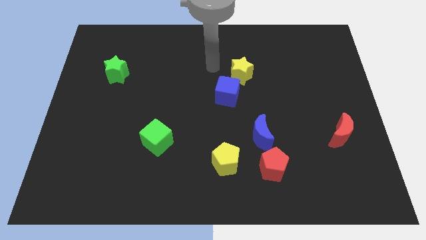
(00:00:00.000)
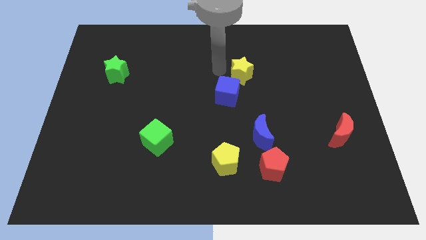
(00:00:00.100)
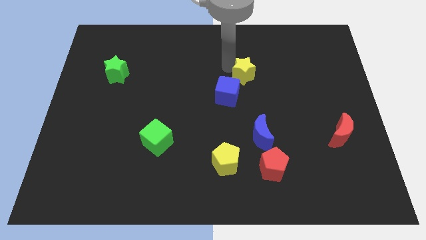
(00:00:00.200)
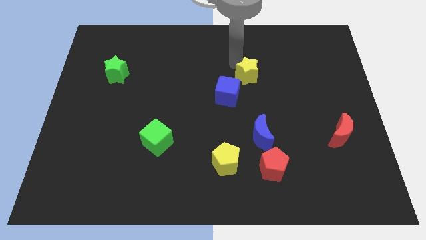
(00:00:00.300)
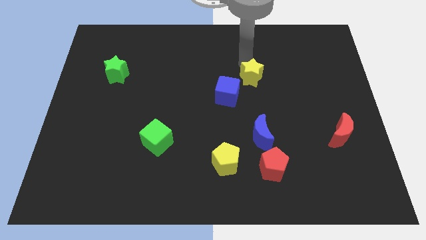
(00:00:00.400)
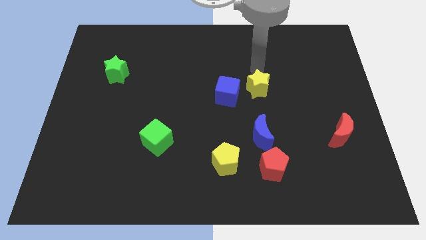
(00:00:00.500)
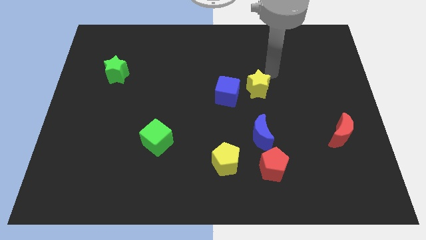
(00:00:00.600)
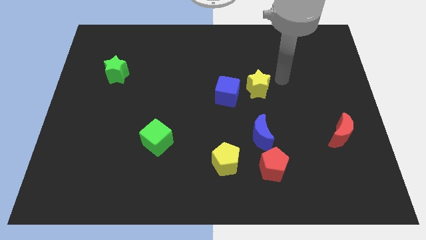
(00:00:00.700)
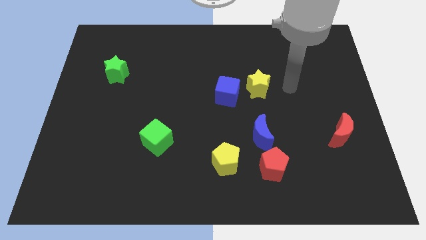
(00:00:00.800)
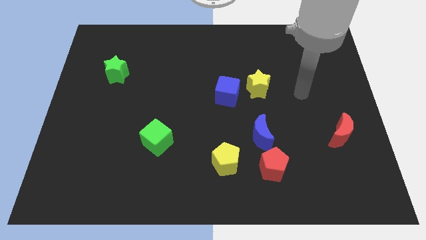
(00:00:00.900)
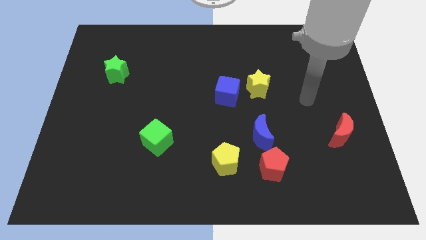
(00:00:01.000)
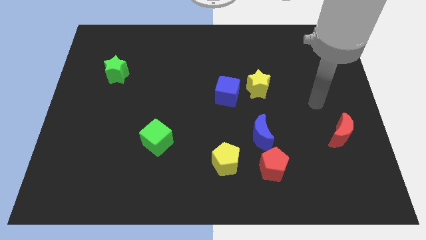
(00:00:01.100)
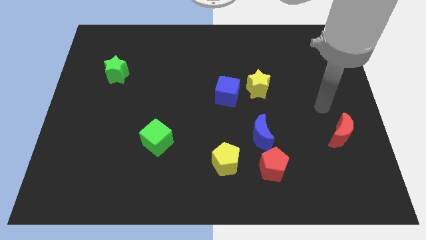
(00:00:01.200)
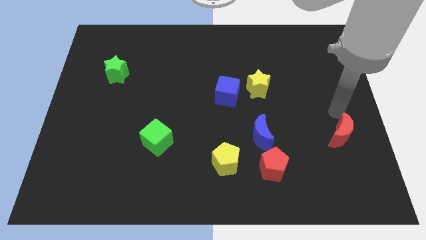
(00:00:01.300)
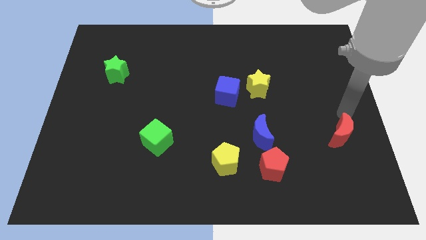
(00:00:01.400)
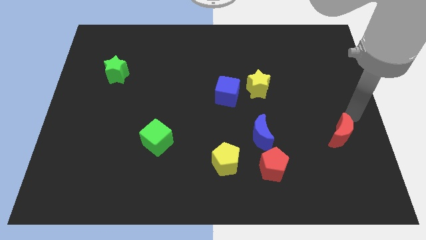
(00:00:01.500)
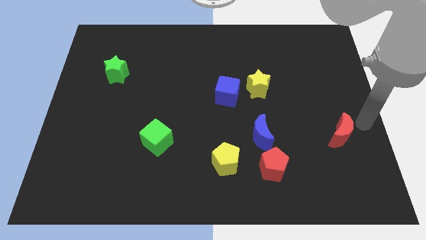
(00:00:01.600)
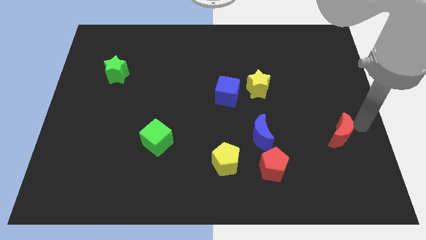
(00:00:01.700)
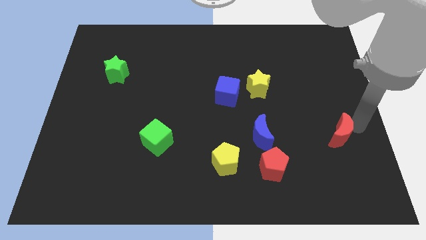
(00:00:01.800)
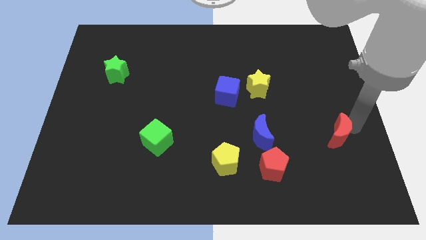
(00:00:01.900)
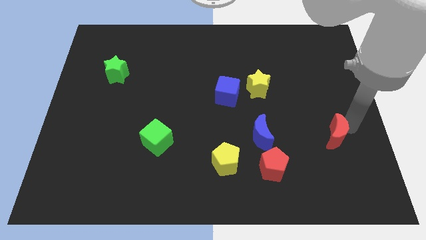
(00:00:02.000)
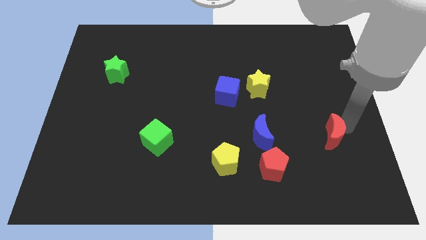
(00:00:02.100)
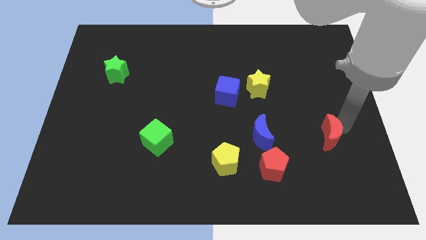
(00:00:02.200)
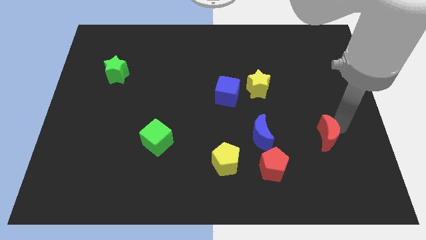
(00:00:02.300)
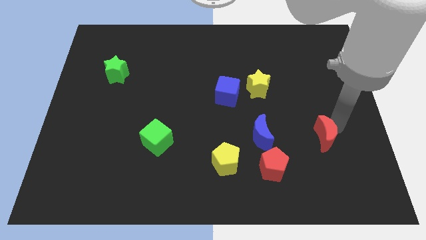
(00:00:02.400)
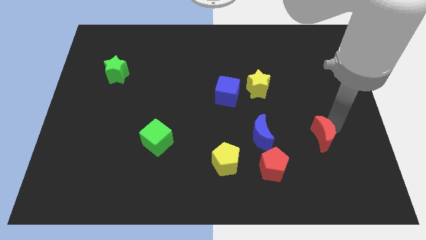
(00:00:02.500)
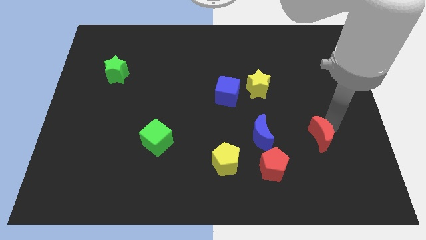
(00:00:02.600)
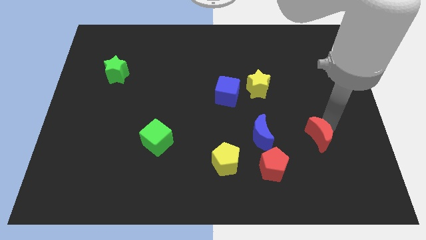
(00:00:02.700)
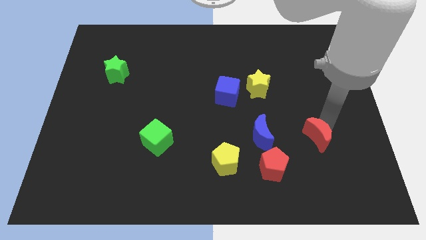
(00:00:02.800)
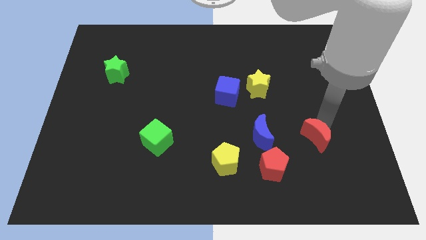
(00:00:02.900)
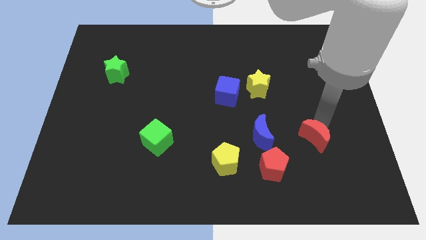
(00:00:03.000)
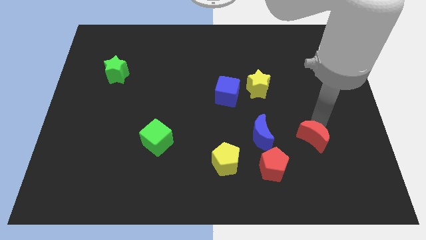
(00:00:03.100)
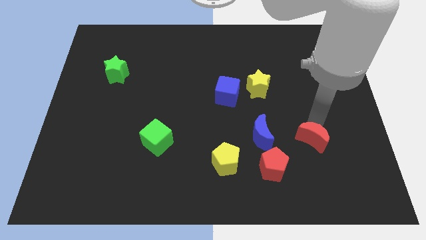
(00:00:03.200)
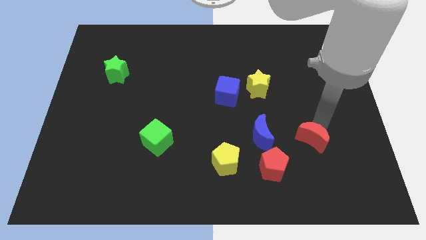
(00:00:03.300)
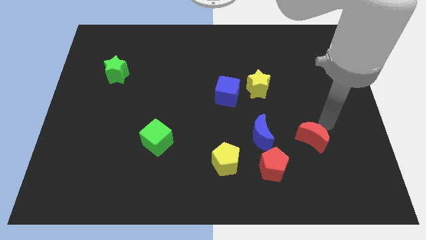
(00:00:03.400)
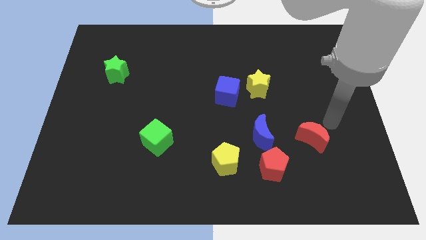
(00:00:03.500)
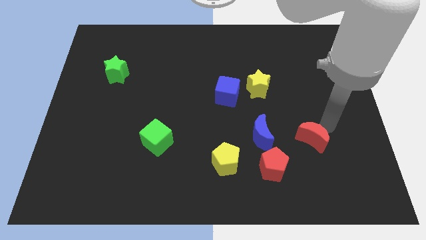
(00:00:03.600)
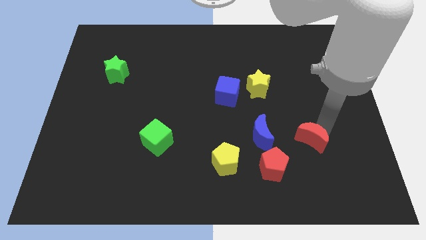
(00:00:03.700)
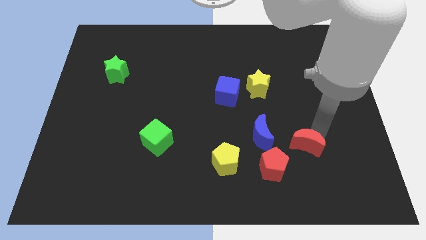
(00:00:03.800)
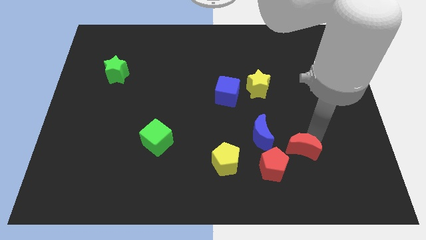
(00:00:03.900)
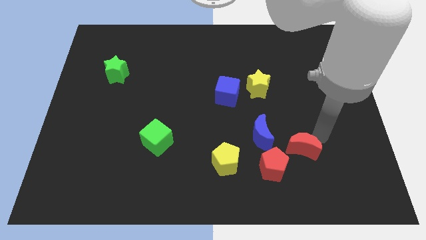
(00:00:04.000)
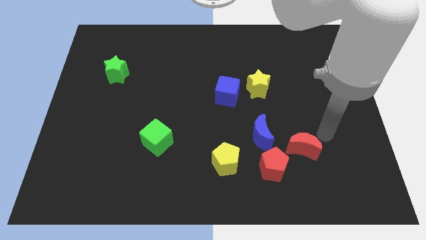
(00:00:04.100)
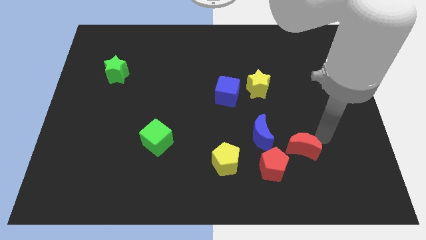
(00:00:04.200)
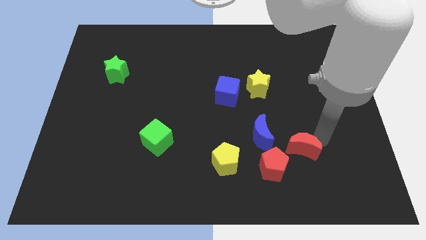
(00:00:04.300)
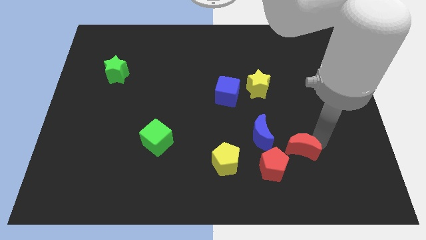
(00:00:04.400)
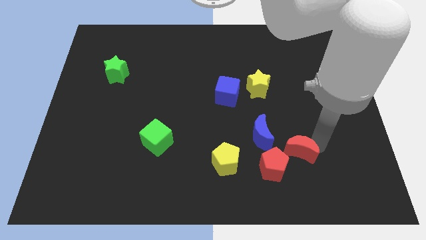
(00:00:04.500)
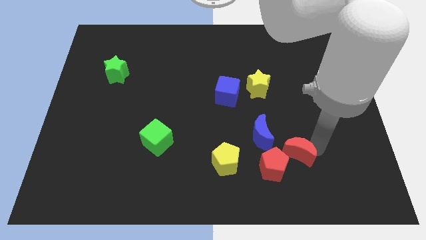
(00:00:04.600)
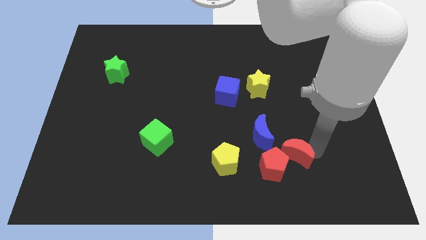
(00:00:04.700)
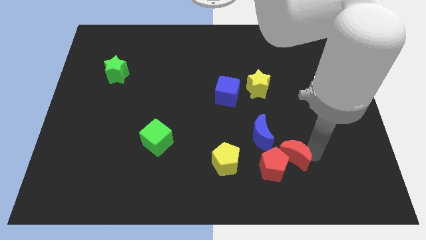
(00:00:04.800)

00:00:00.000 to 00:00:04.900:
push the red moon close to the red pentagon

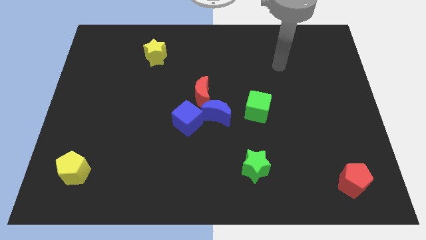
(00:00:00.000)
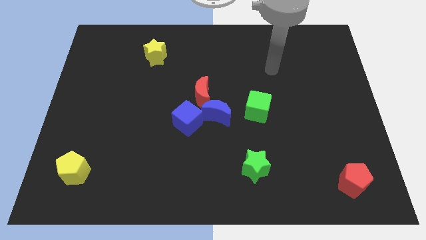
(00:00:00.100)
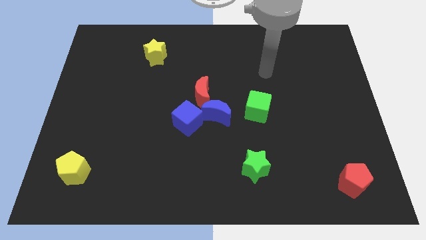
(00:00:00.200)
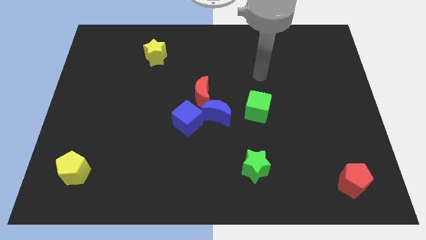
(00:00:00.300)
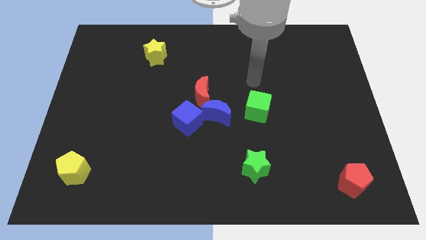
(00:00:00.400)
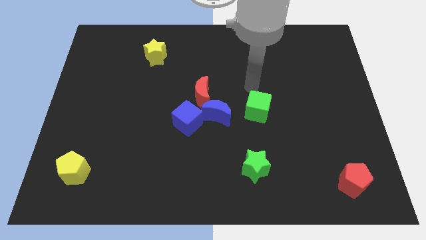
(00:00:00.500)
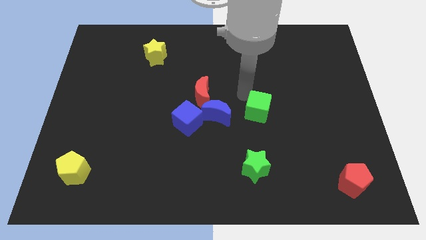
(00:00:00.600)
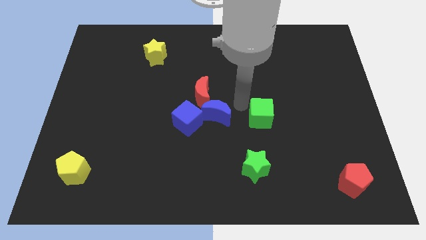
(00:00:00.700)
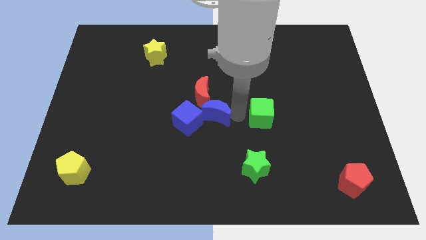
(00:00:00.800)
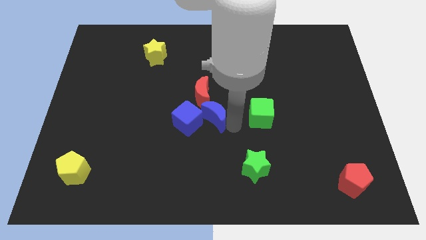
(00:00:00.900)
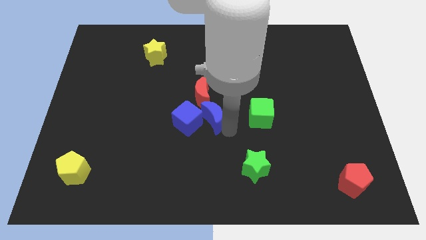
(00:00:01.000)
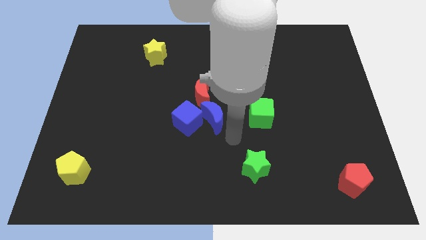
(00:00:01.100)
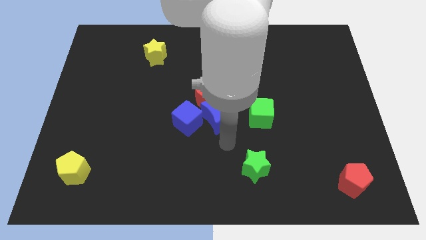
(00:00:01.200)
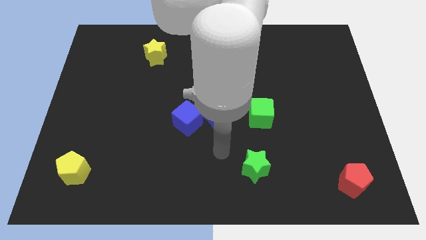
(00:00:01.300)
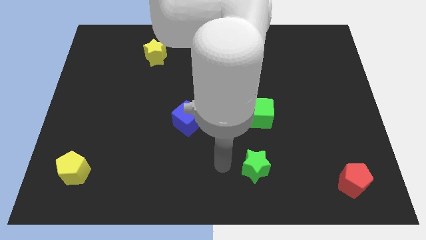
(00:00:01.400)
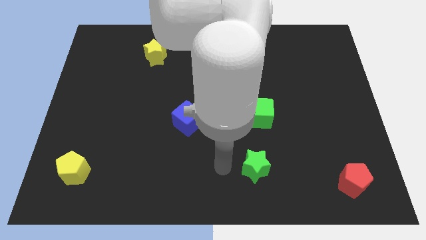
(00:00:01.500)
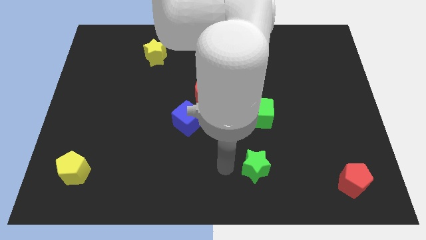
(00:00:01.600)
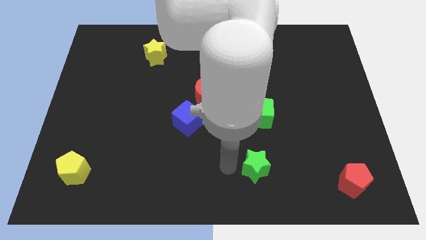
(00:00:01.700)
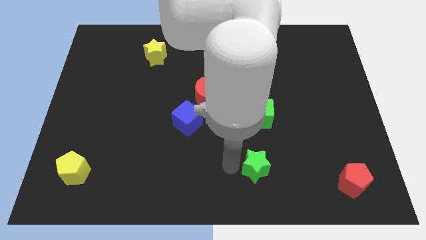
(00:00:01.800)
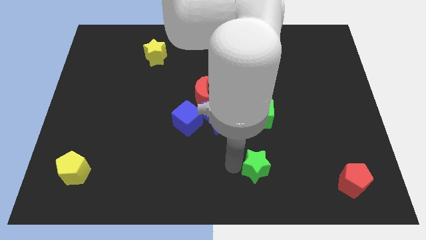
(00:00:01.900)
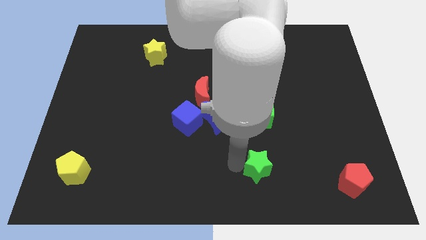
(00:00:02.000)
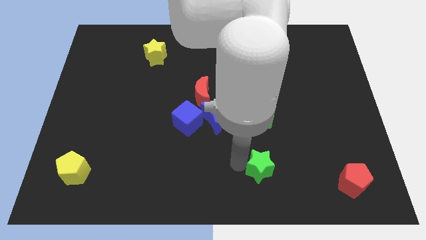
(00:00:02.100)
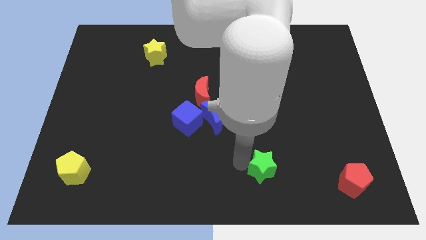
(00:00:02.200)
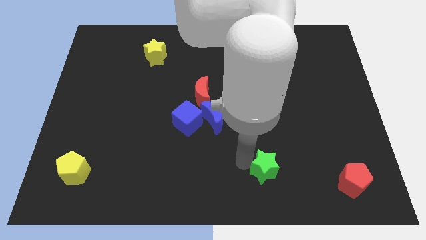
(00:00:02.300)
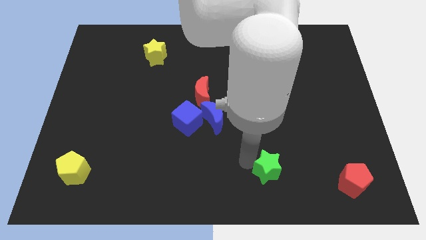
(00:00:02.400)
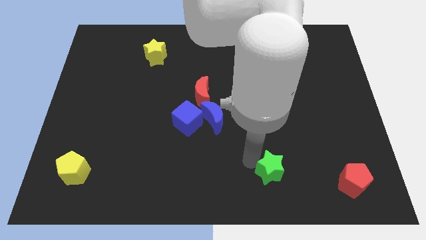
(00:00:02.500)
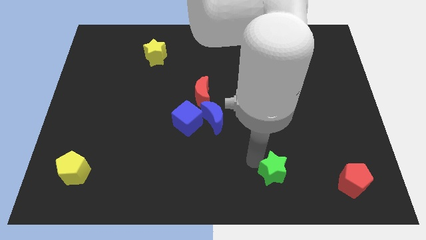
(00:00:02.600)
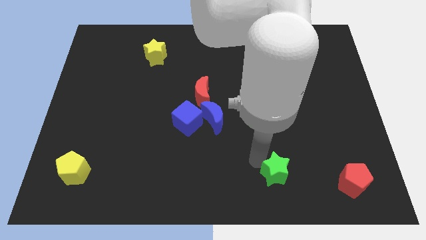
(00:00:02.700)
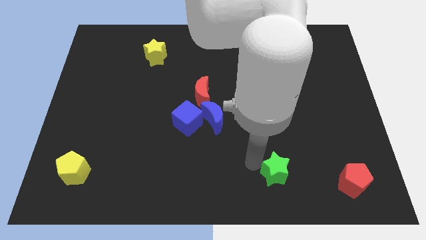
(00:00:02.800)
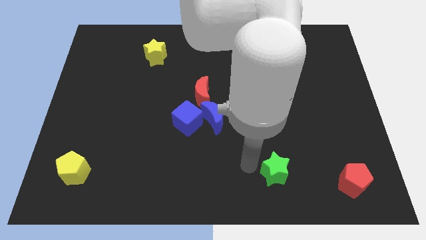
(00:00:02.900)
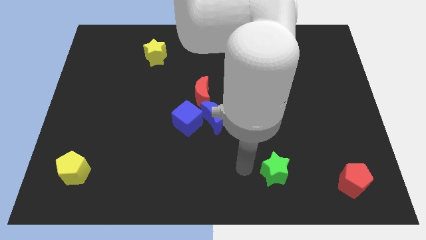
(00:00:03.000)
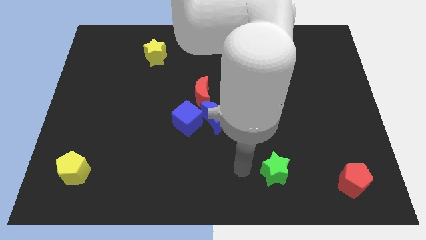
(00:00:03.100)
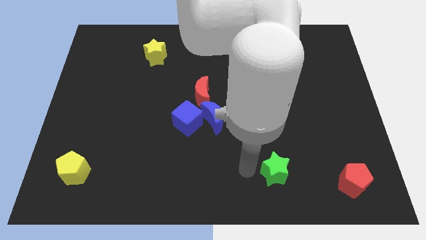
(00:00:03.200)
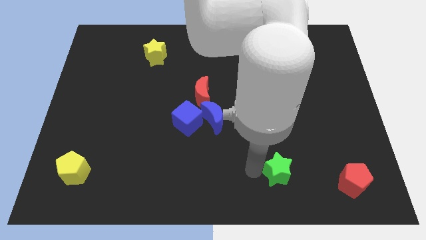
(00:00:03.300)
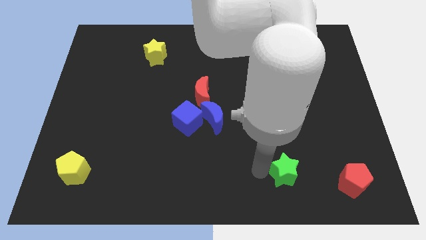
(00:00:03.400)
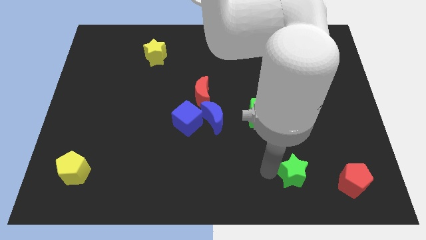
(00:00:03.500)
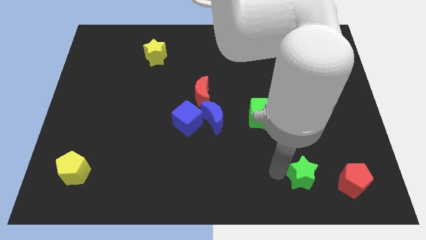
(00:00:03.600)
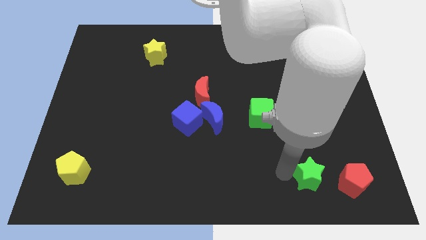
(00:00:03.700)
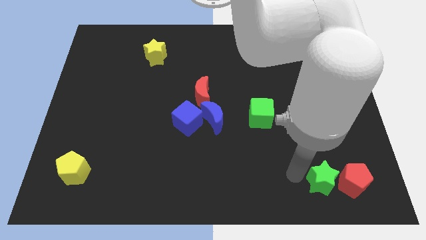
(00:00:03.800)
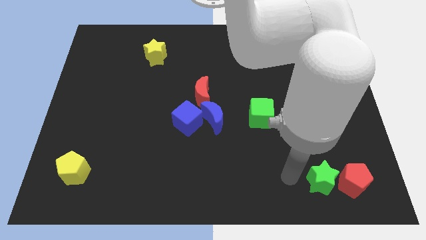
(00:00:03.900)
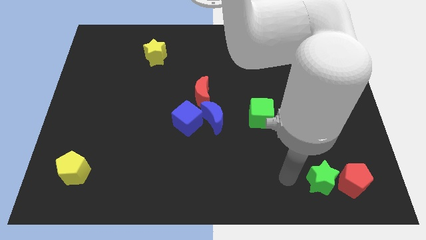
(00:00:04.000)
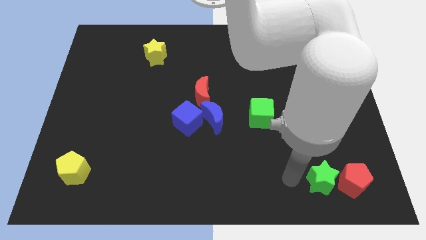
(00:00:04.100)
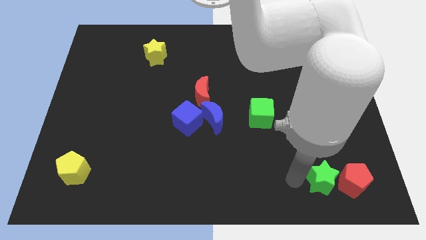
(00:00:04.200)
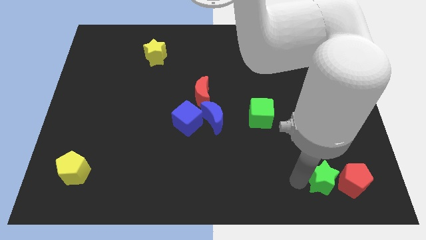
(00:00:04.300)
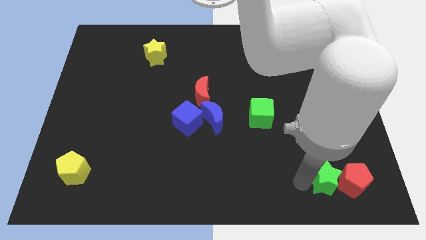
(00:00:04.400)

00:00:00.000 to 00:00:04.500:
move the green star next to the red pentagon
